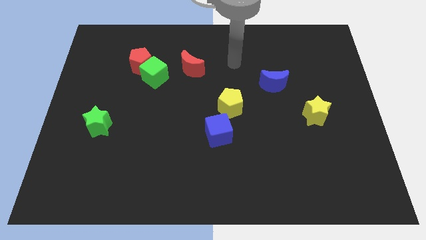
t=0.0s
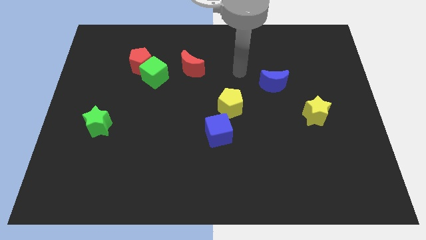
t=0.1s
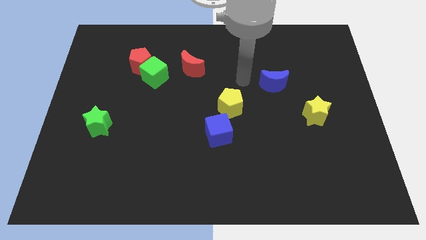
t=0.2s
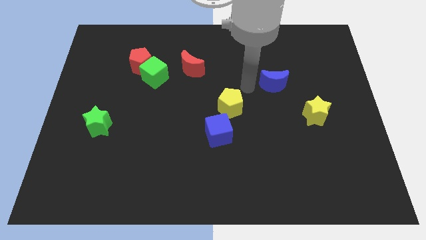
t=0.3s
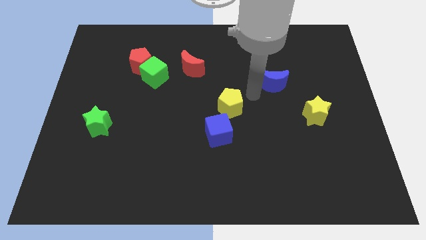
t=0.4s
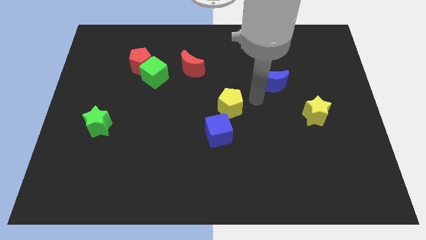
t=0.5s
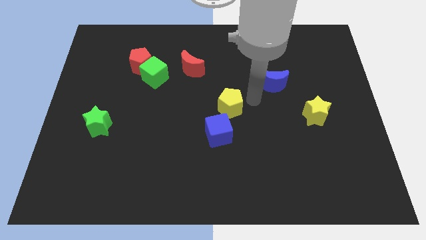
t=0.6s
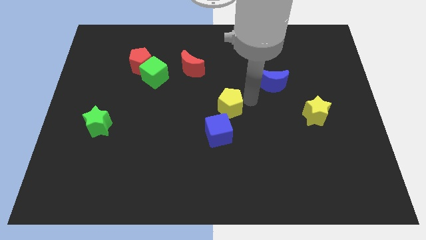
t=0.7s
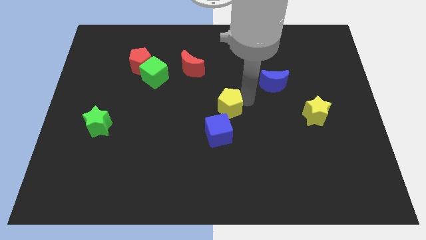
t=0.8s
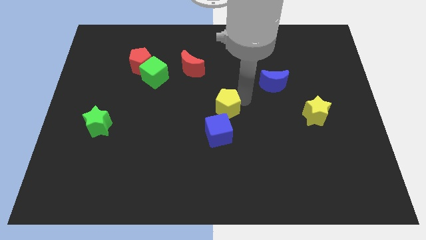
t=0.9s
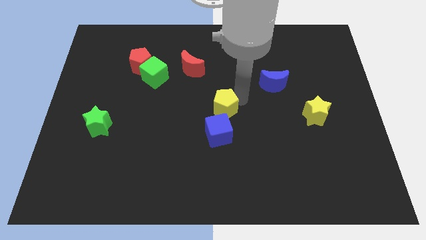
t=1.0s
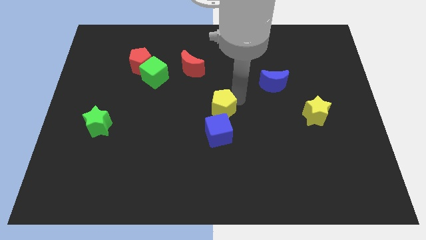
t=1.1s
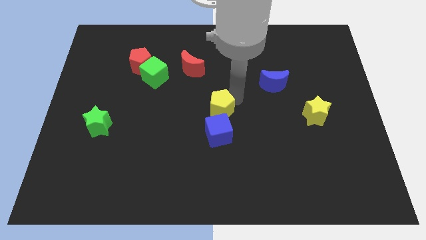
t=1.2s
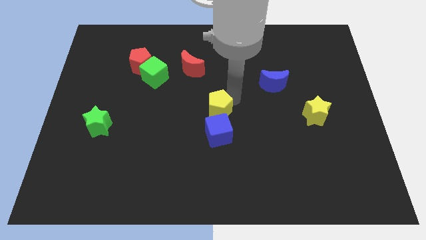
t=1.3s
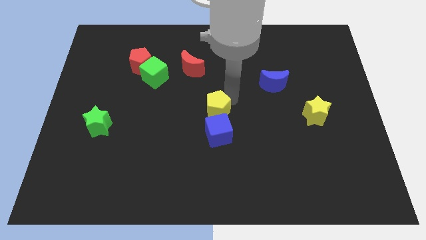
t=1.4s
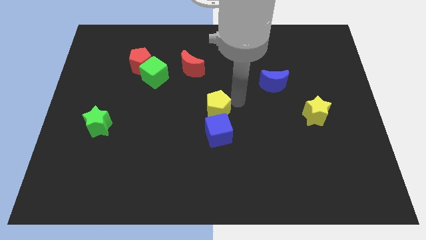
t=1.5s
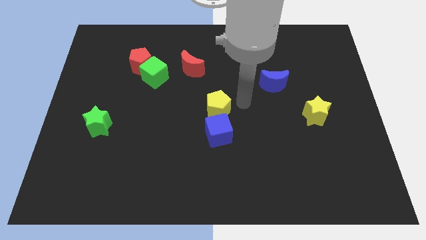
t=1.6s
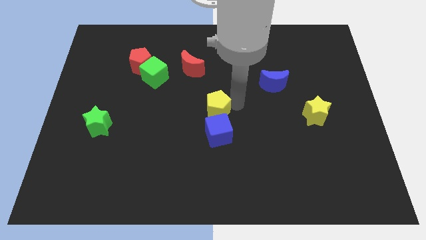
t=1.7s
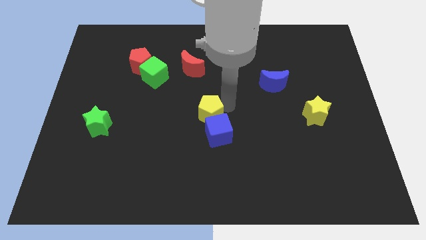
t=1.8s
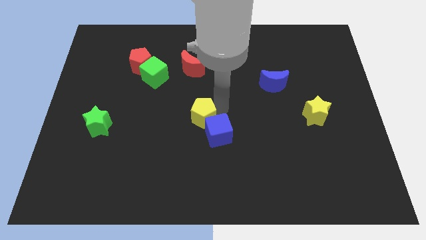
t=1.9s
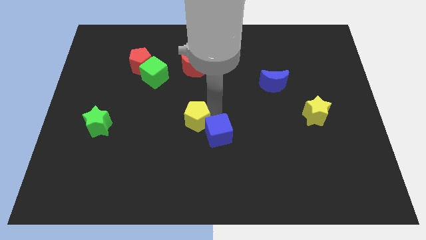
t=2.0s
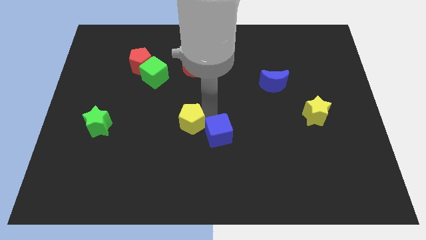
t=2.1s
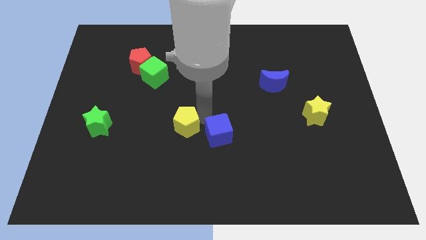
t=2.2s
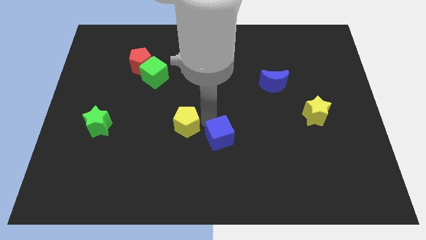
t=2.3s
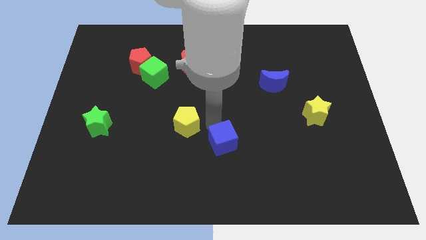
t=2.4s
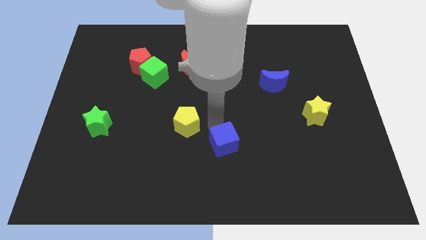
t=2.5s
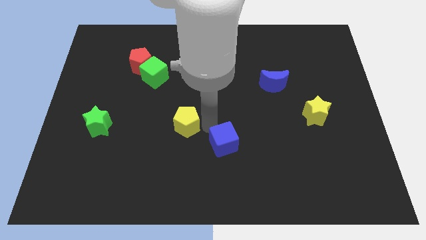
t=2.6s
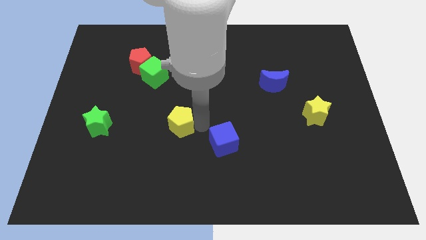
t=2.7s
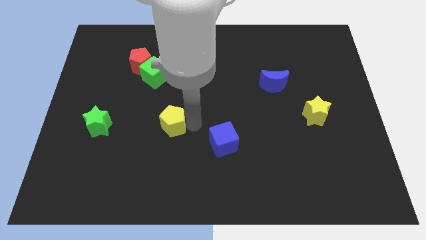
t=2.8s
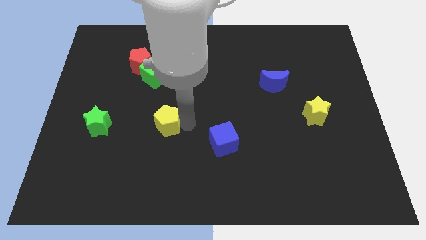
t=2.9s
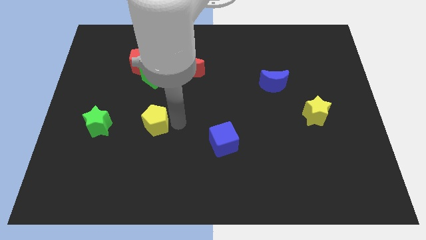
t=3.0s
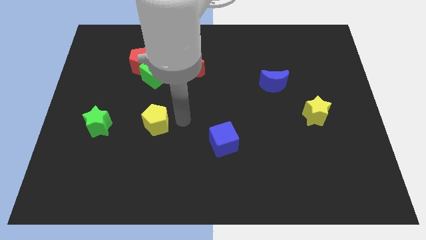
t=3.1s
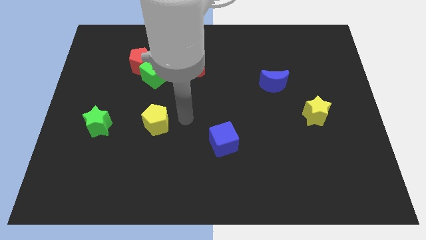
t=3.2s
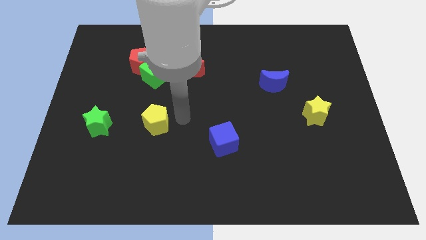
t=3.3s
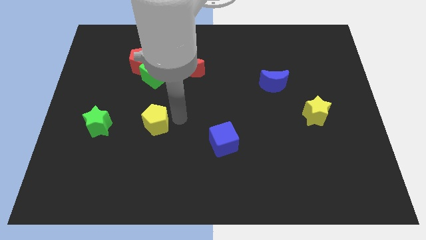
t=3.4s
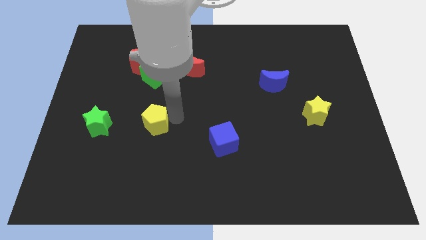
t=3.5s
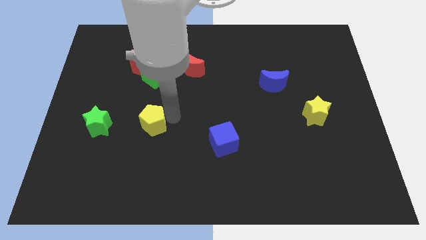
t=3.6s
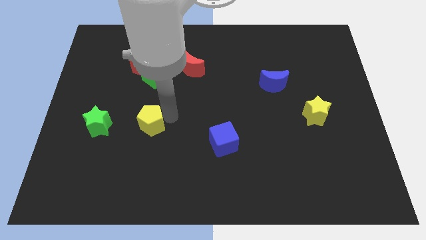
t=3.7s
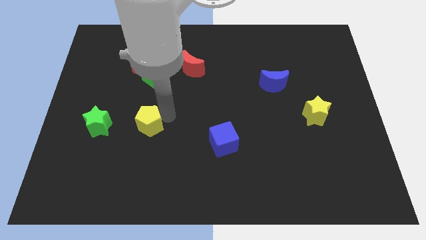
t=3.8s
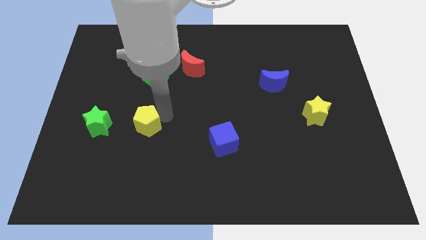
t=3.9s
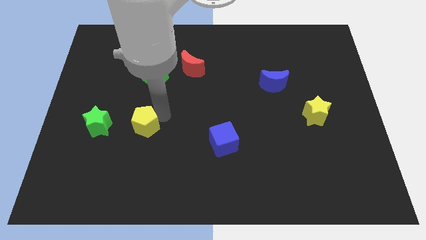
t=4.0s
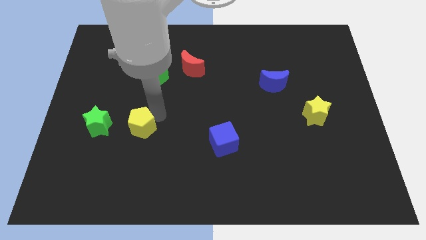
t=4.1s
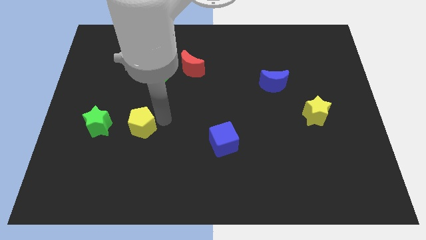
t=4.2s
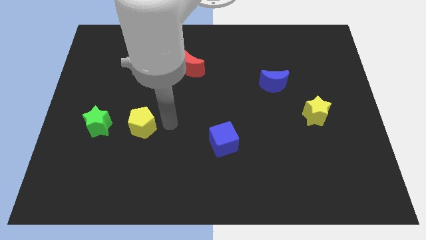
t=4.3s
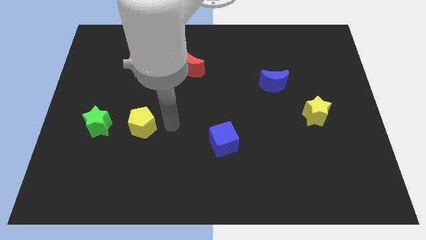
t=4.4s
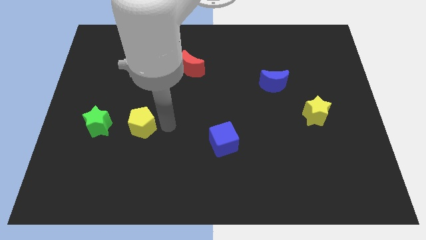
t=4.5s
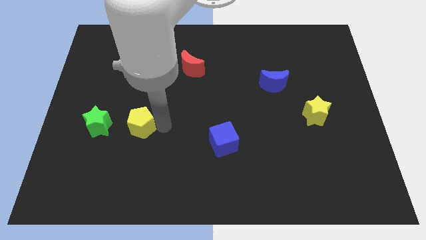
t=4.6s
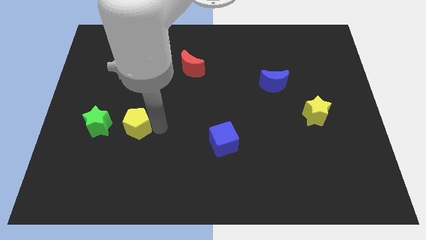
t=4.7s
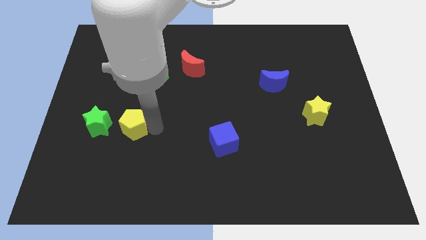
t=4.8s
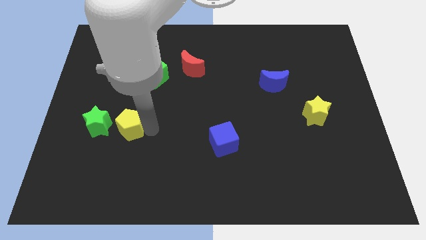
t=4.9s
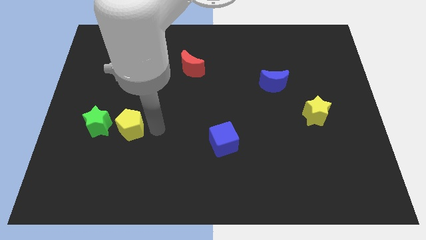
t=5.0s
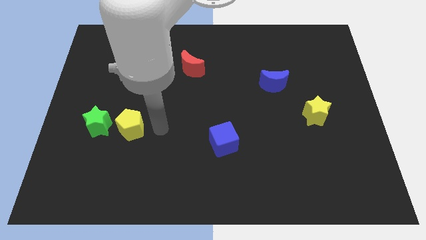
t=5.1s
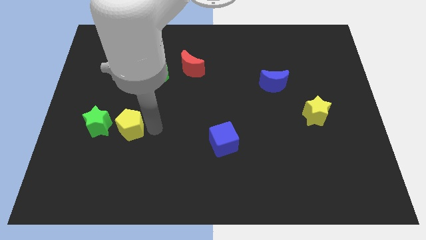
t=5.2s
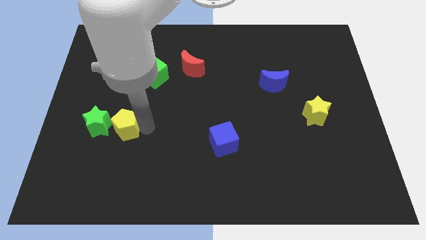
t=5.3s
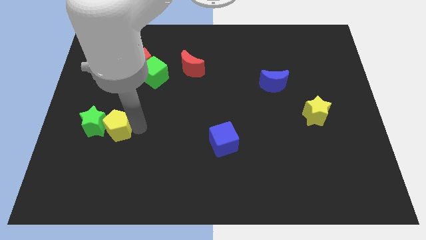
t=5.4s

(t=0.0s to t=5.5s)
slide the yellow pentagon next to the green star

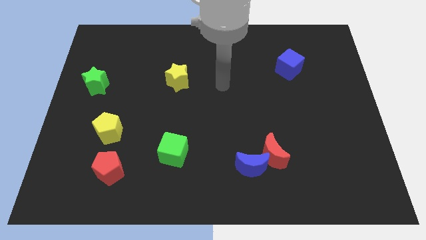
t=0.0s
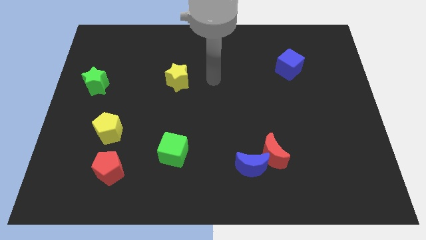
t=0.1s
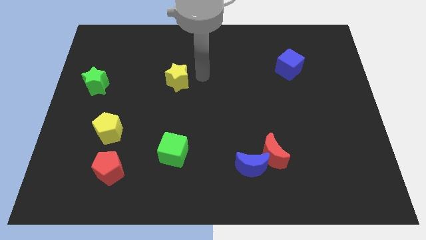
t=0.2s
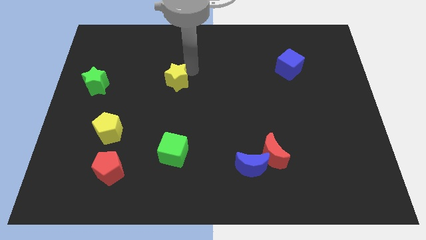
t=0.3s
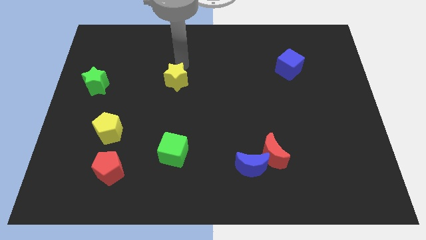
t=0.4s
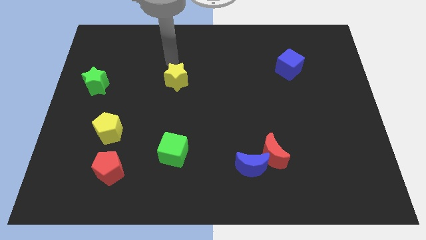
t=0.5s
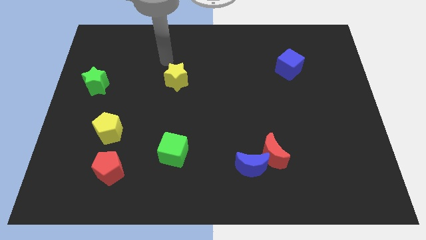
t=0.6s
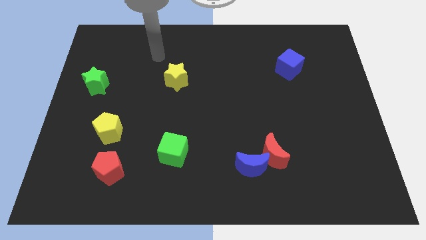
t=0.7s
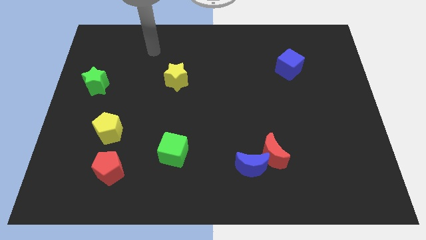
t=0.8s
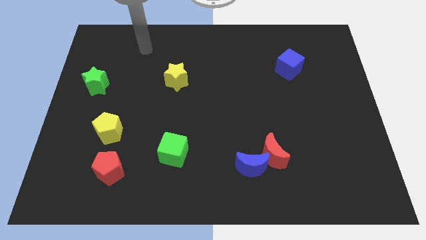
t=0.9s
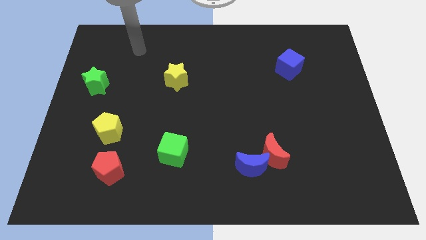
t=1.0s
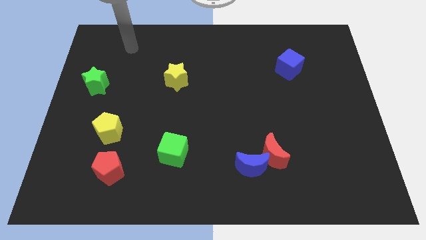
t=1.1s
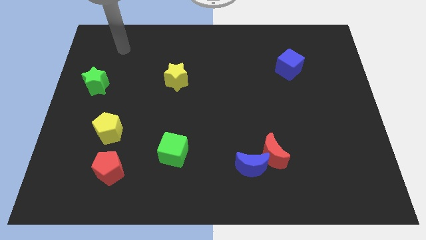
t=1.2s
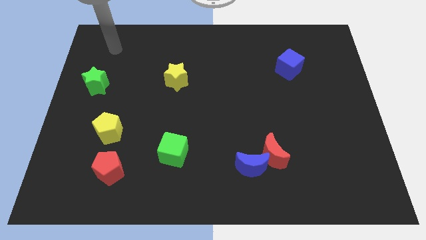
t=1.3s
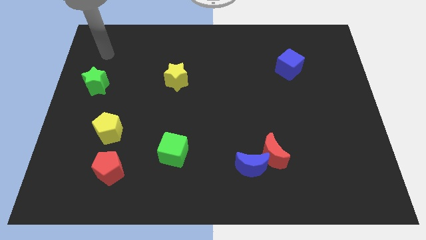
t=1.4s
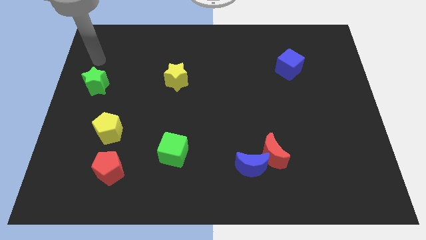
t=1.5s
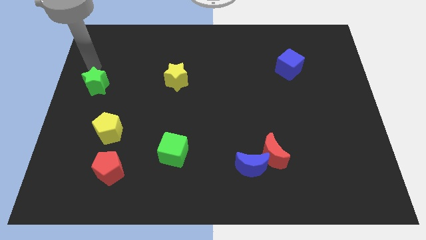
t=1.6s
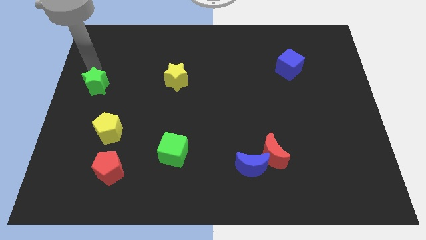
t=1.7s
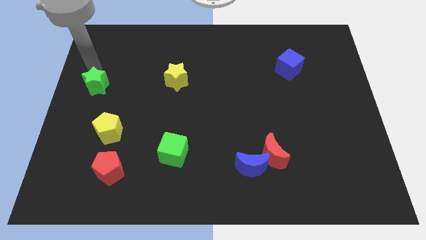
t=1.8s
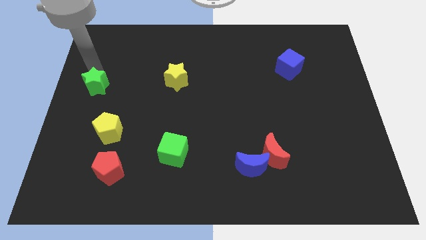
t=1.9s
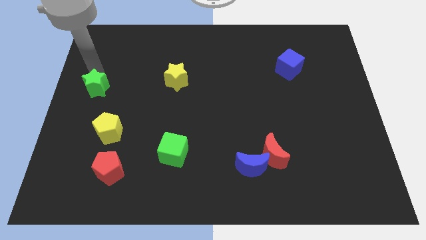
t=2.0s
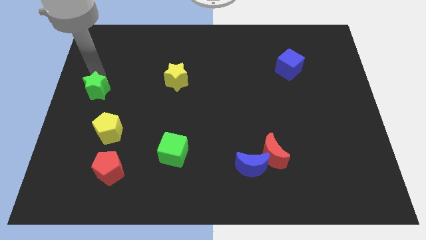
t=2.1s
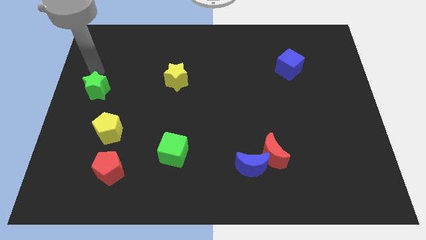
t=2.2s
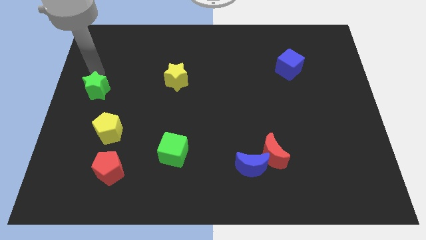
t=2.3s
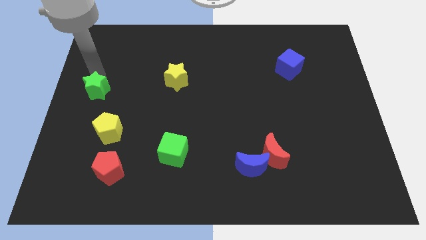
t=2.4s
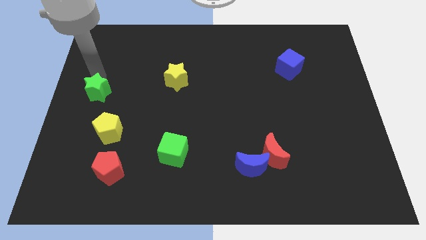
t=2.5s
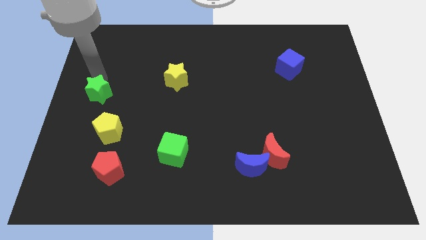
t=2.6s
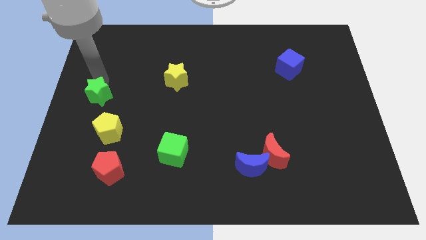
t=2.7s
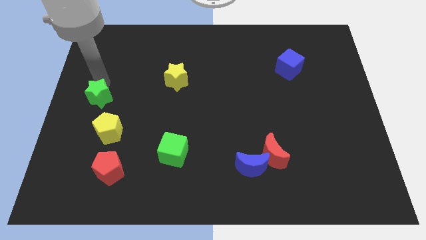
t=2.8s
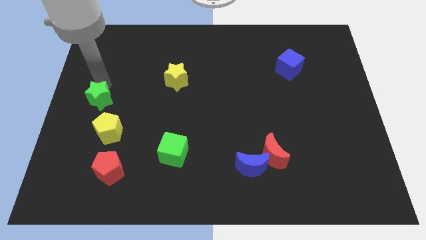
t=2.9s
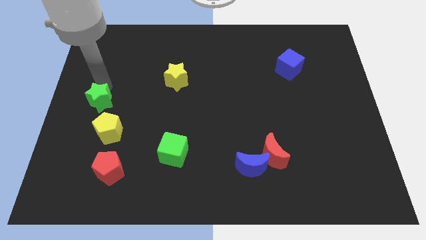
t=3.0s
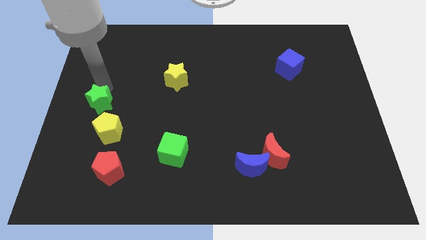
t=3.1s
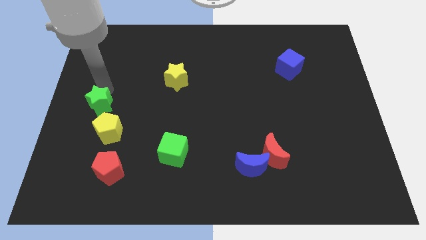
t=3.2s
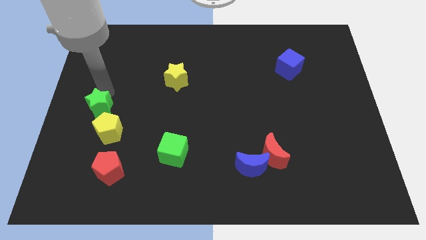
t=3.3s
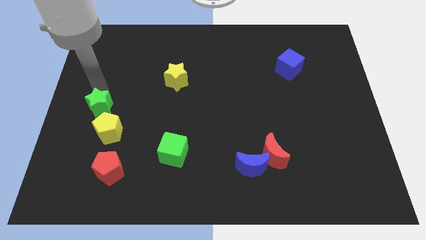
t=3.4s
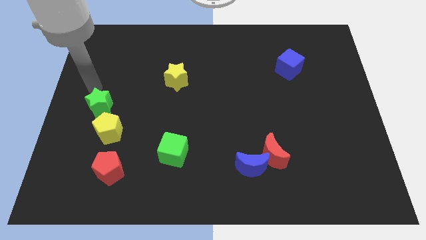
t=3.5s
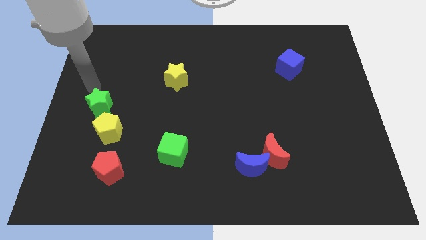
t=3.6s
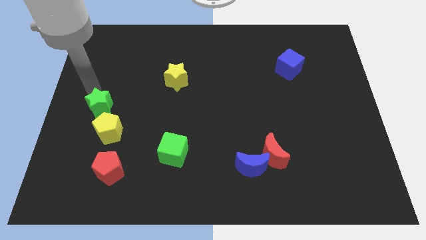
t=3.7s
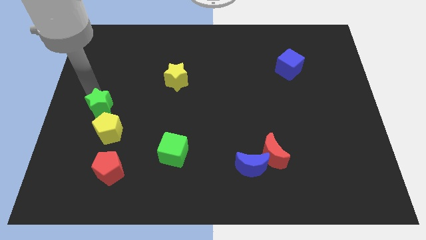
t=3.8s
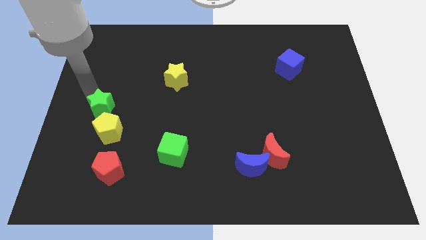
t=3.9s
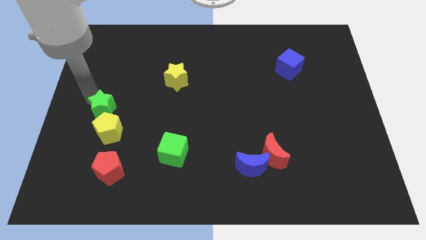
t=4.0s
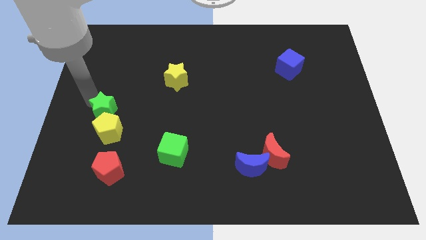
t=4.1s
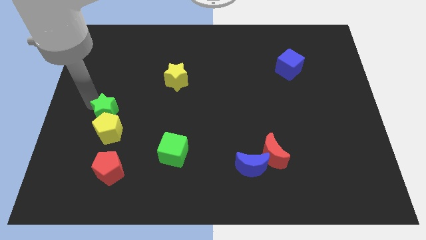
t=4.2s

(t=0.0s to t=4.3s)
slide the green star close to the yellow pentagon
